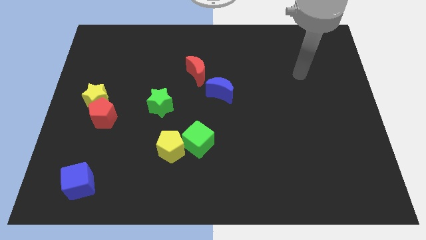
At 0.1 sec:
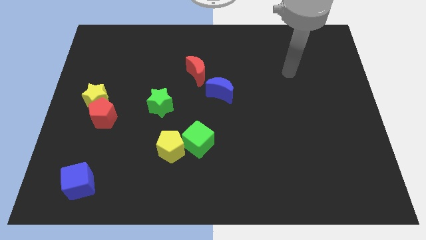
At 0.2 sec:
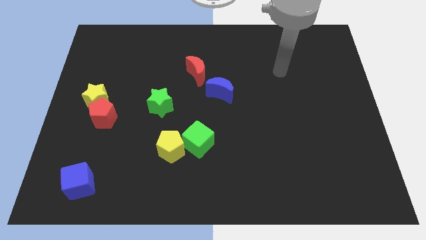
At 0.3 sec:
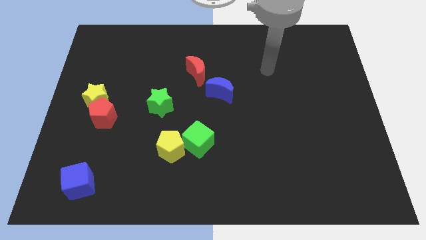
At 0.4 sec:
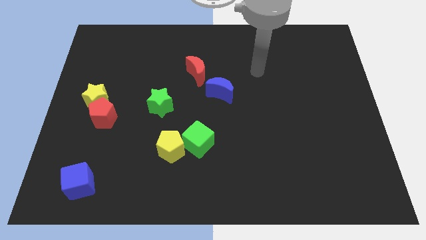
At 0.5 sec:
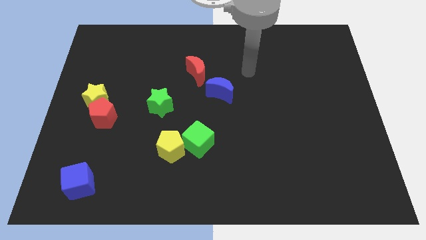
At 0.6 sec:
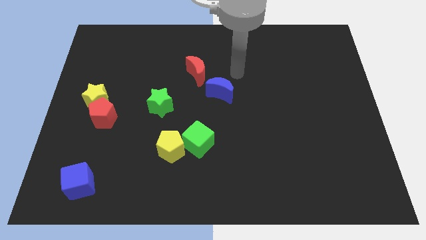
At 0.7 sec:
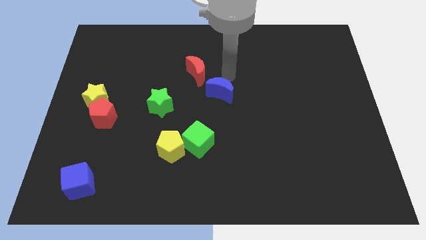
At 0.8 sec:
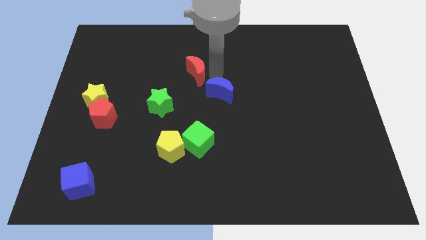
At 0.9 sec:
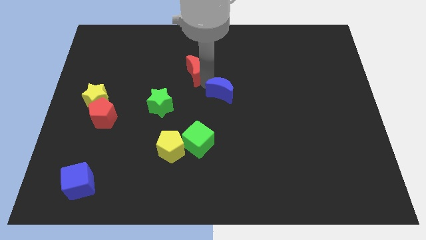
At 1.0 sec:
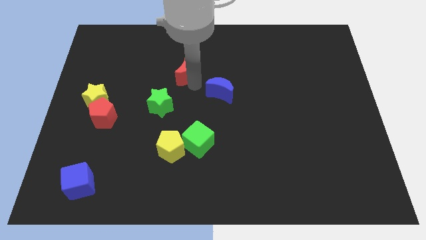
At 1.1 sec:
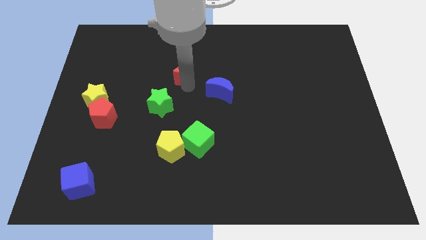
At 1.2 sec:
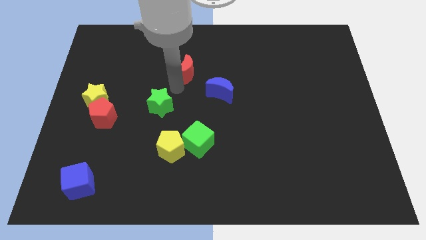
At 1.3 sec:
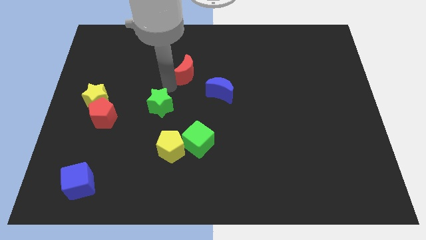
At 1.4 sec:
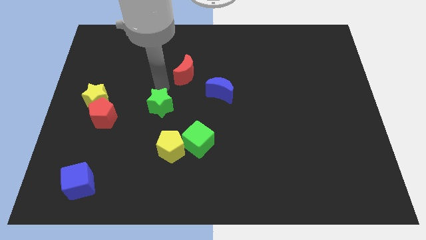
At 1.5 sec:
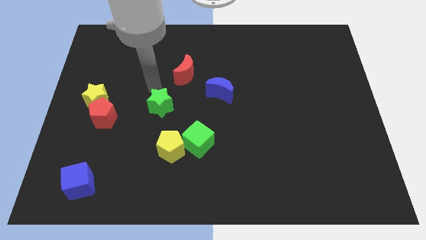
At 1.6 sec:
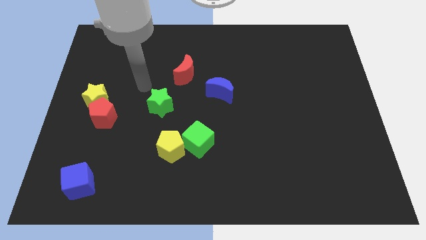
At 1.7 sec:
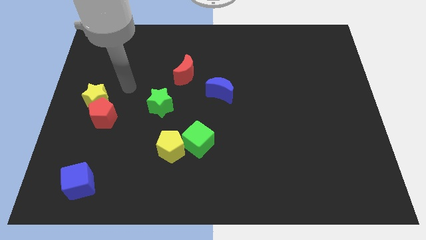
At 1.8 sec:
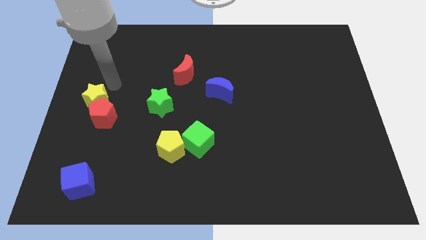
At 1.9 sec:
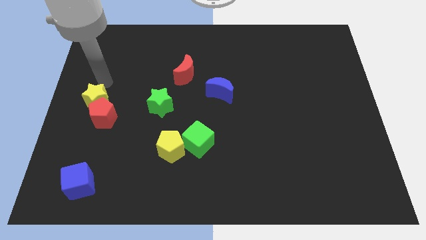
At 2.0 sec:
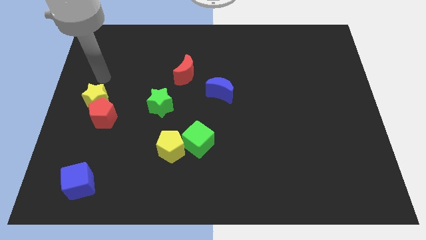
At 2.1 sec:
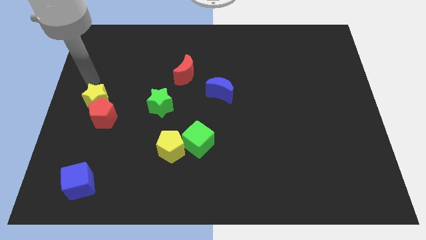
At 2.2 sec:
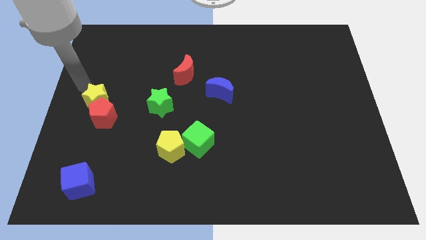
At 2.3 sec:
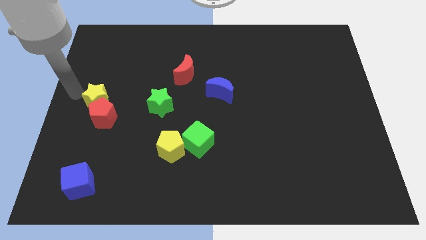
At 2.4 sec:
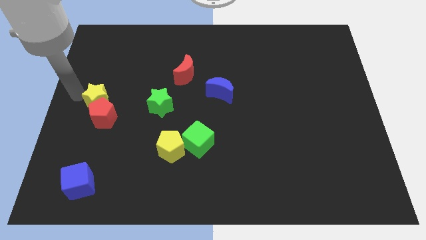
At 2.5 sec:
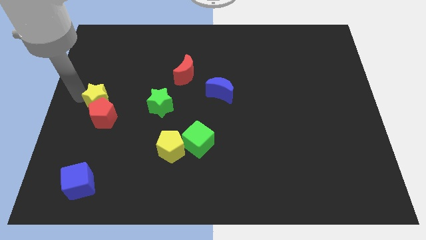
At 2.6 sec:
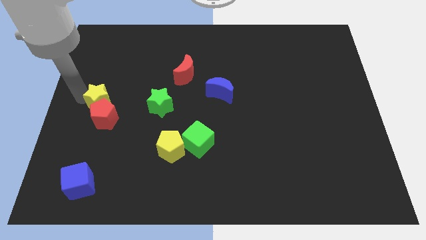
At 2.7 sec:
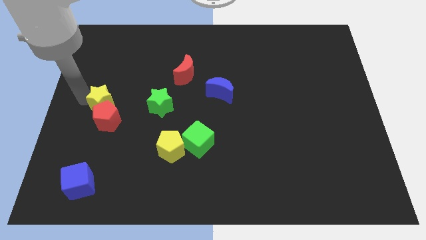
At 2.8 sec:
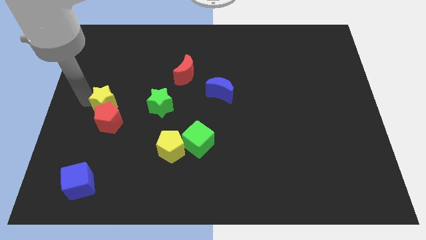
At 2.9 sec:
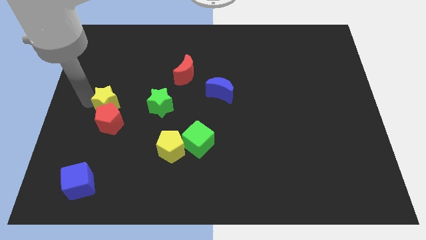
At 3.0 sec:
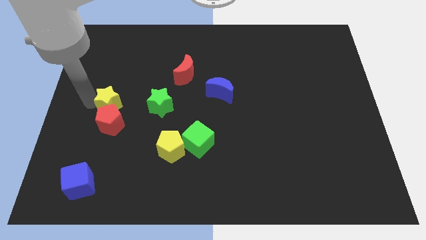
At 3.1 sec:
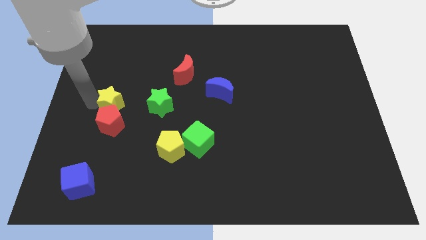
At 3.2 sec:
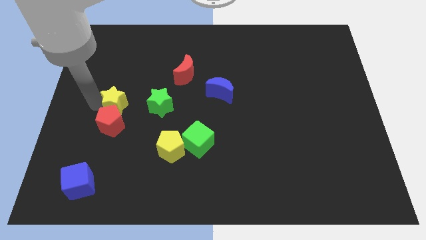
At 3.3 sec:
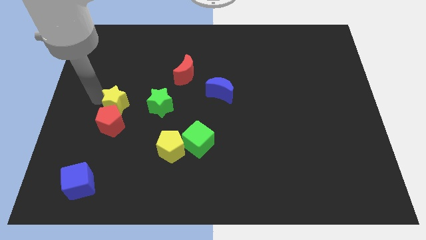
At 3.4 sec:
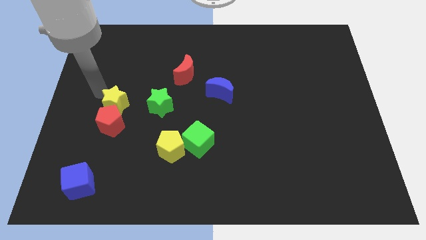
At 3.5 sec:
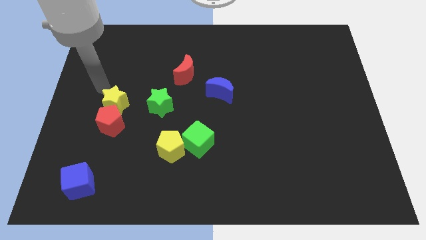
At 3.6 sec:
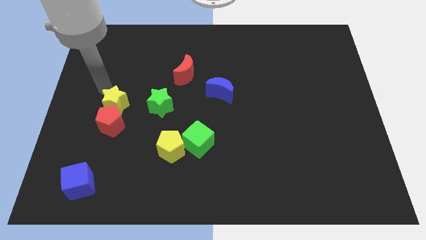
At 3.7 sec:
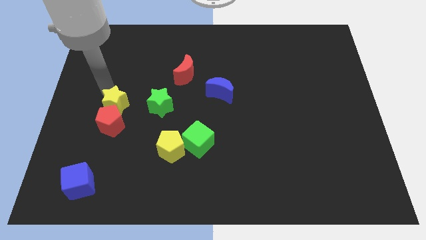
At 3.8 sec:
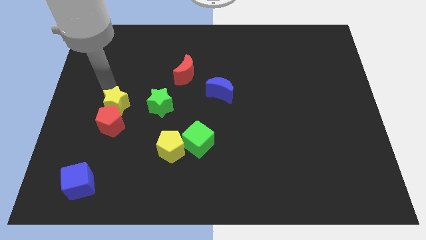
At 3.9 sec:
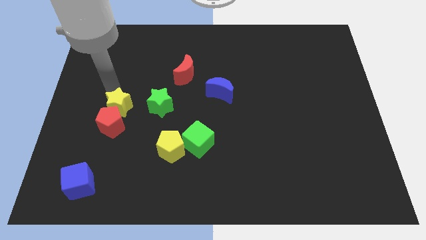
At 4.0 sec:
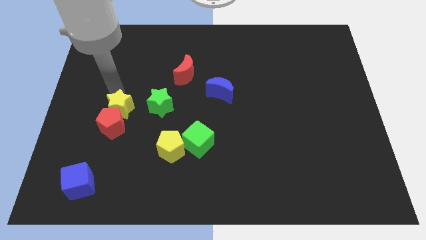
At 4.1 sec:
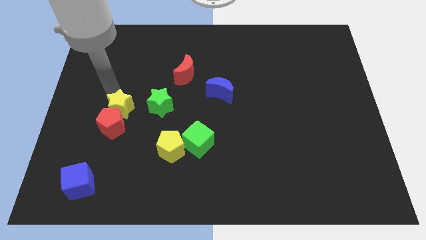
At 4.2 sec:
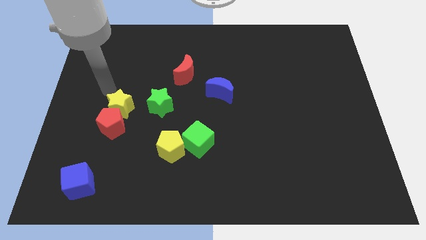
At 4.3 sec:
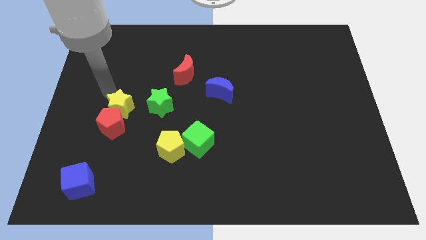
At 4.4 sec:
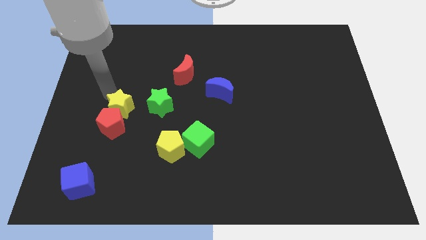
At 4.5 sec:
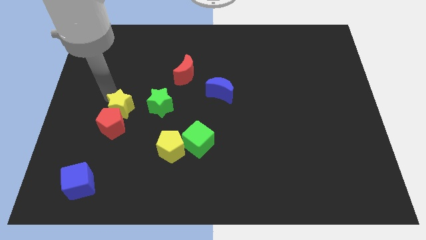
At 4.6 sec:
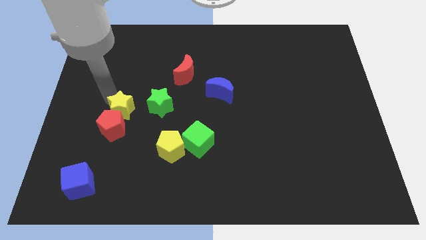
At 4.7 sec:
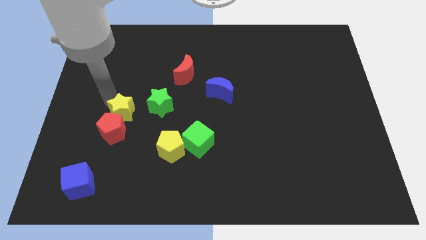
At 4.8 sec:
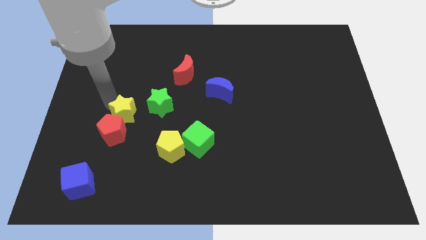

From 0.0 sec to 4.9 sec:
put the yellow star to the bottom left of the green star

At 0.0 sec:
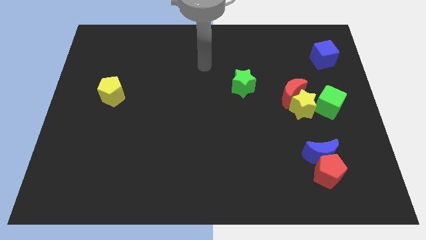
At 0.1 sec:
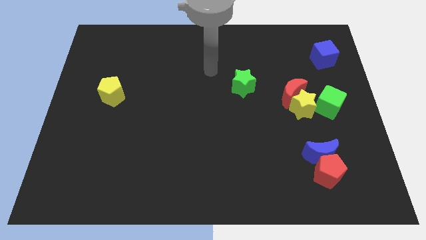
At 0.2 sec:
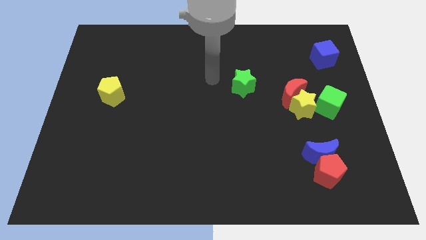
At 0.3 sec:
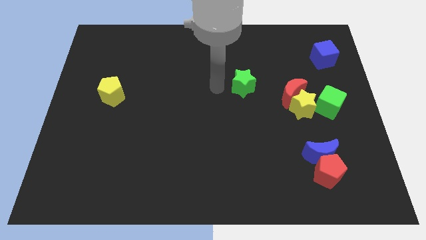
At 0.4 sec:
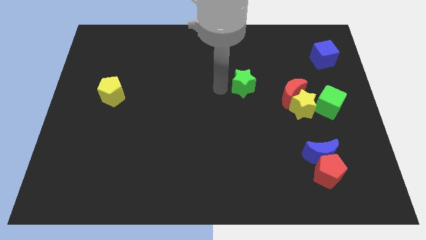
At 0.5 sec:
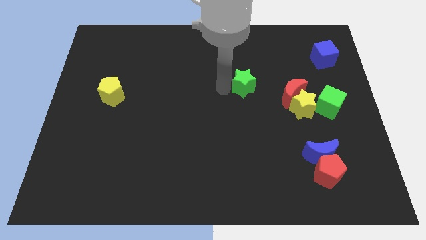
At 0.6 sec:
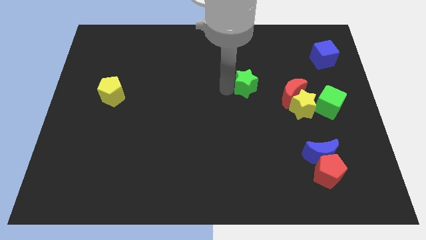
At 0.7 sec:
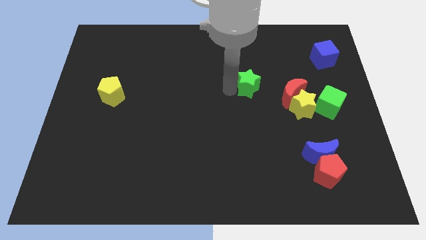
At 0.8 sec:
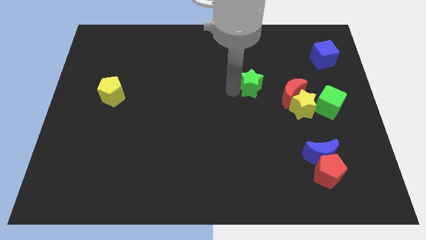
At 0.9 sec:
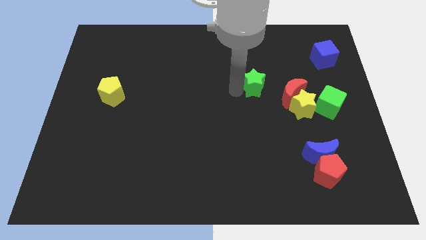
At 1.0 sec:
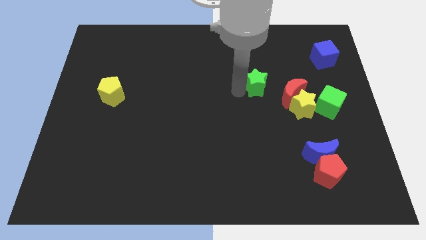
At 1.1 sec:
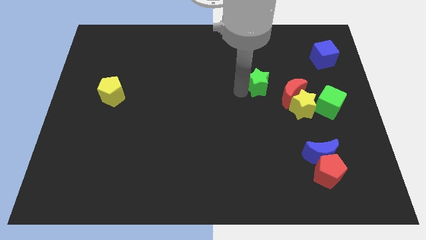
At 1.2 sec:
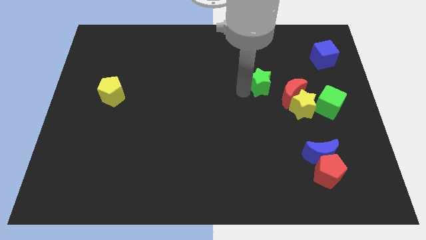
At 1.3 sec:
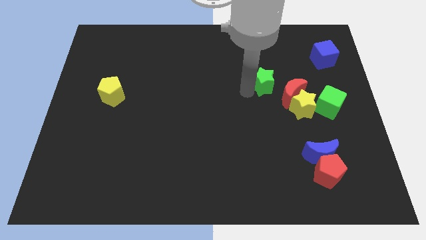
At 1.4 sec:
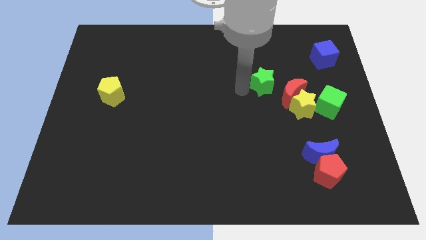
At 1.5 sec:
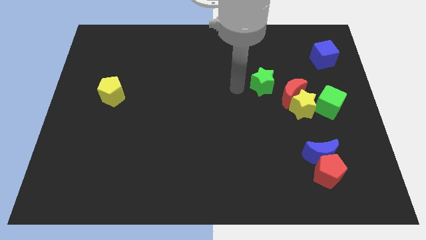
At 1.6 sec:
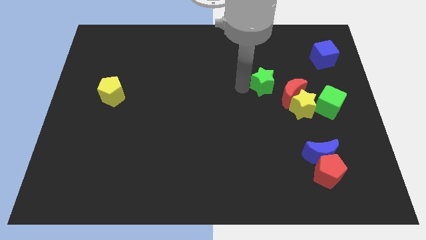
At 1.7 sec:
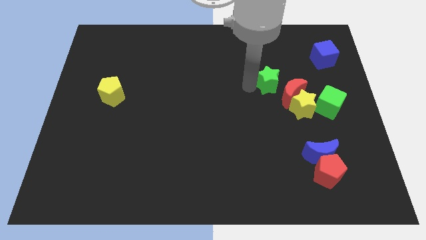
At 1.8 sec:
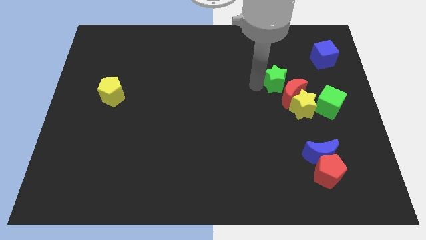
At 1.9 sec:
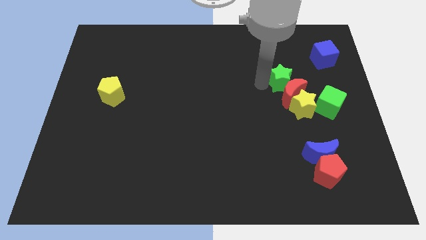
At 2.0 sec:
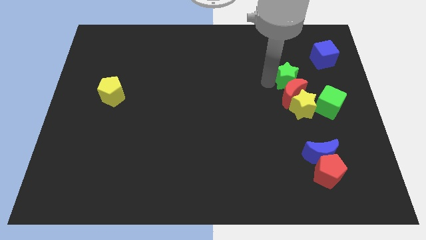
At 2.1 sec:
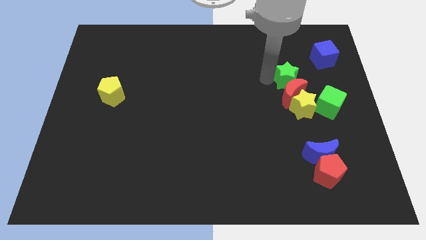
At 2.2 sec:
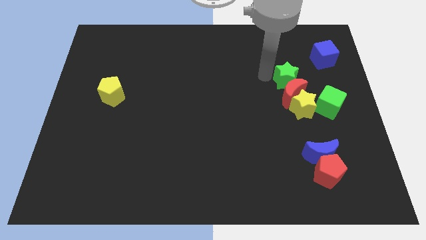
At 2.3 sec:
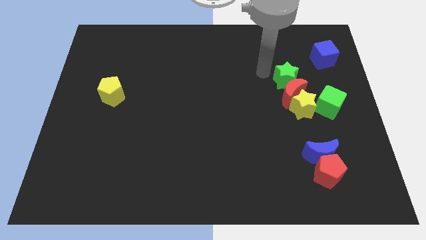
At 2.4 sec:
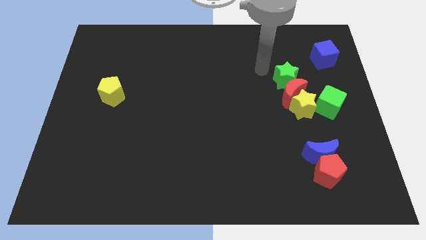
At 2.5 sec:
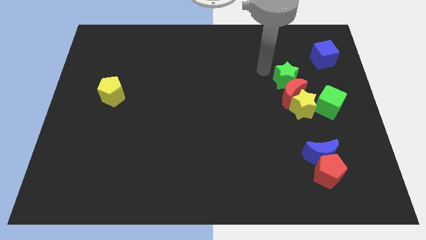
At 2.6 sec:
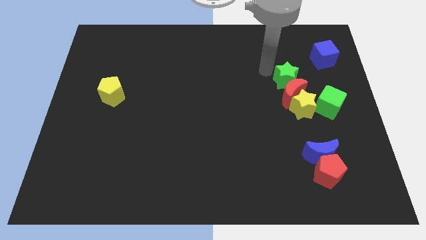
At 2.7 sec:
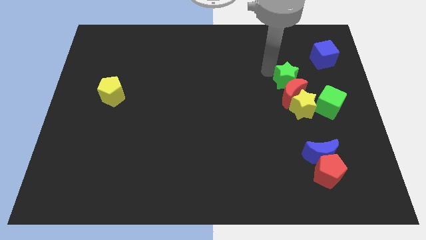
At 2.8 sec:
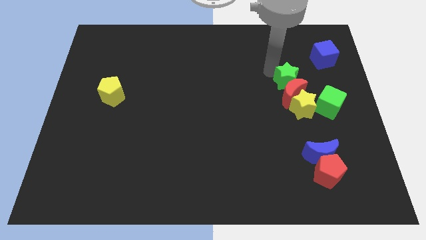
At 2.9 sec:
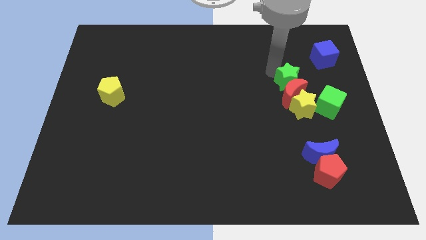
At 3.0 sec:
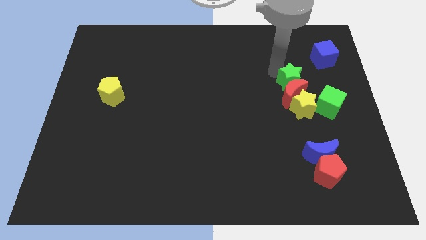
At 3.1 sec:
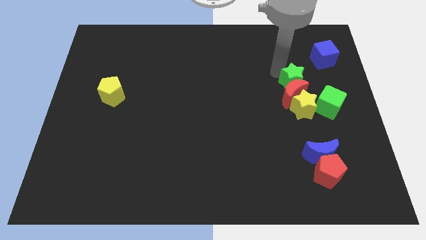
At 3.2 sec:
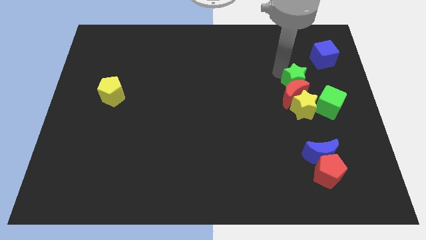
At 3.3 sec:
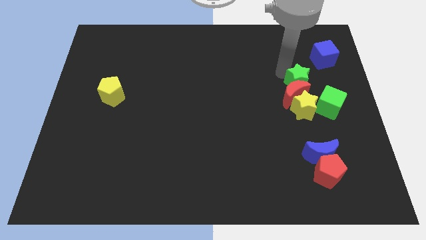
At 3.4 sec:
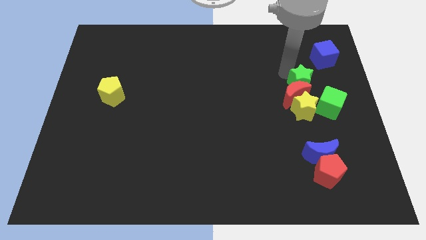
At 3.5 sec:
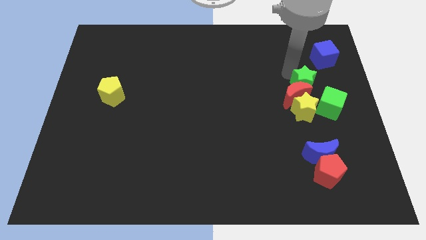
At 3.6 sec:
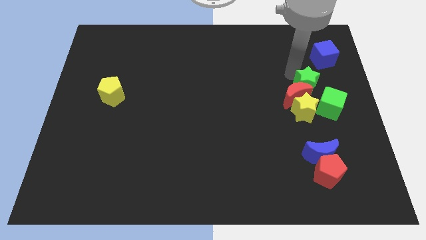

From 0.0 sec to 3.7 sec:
move the green star diagonally up and to the right of the yellow star
